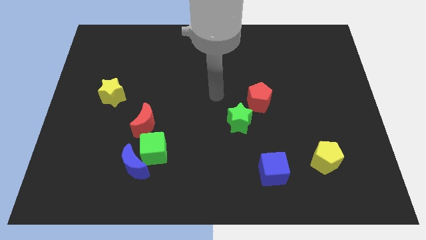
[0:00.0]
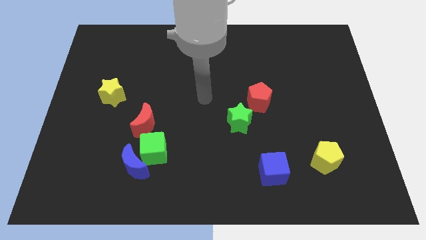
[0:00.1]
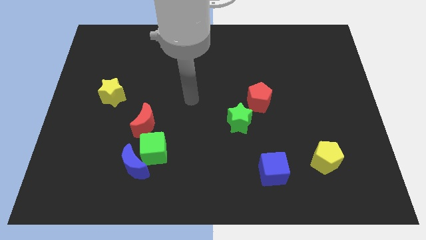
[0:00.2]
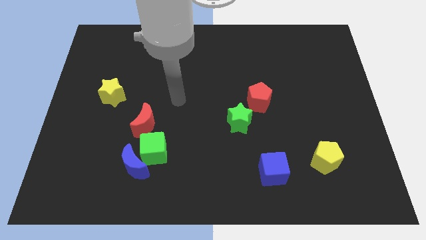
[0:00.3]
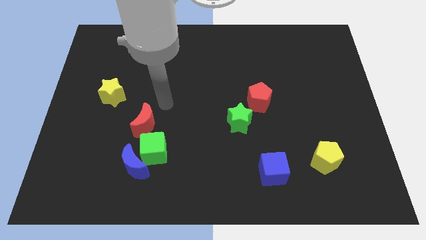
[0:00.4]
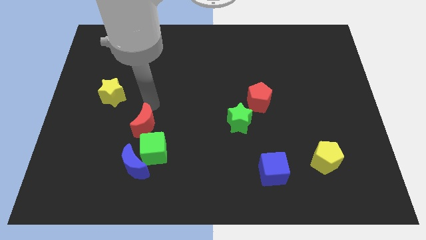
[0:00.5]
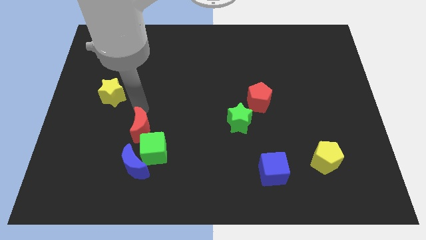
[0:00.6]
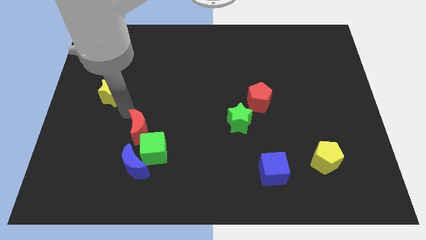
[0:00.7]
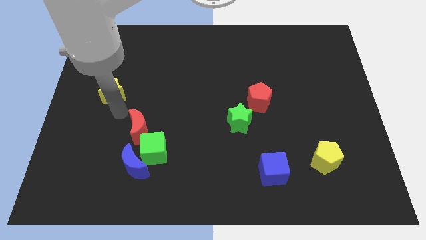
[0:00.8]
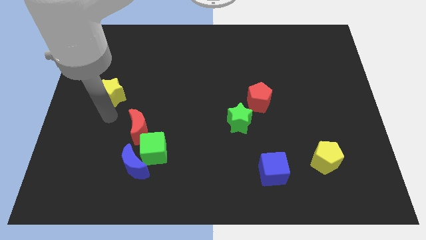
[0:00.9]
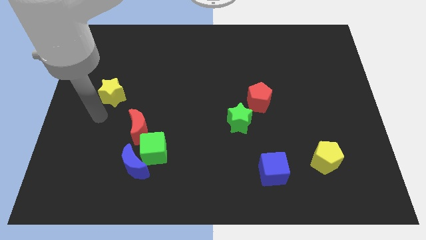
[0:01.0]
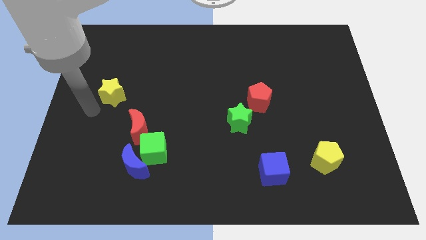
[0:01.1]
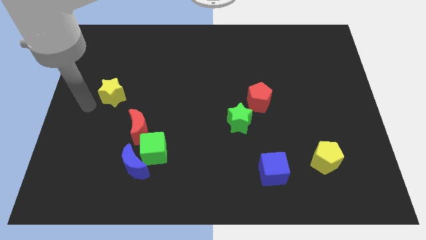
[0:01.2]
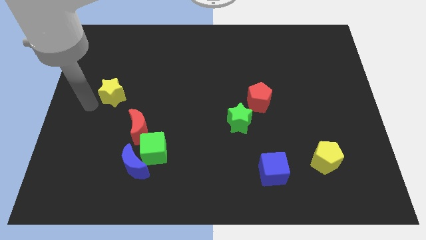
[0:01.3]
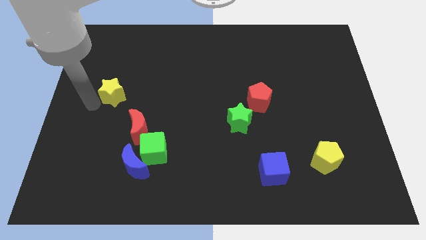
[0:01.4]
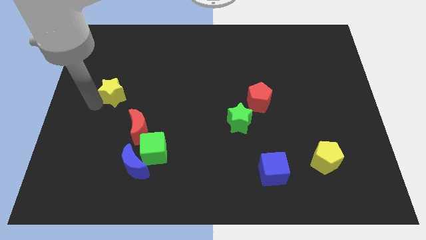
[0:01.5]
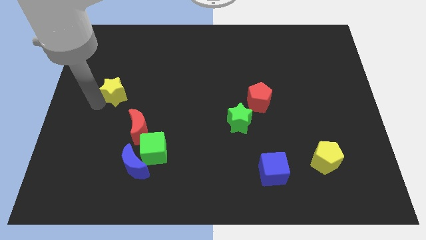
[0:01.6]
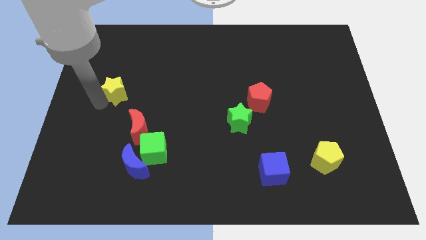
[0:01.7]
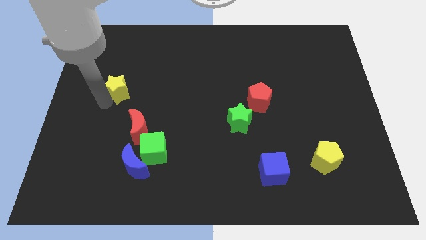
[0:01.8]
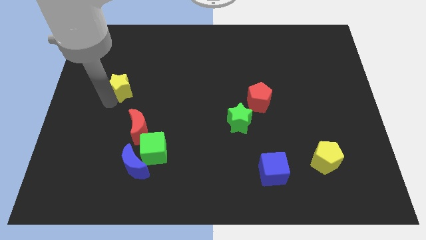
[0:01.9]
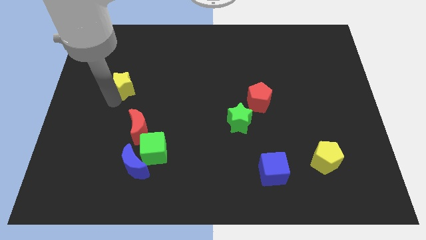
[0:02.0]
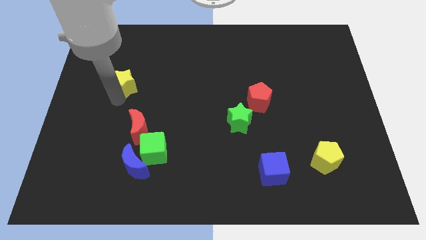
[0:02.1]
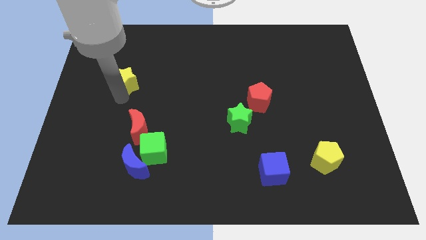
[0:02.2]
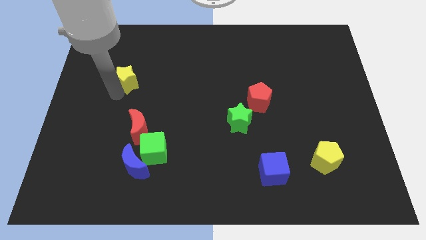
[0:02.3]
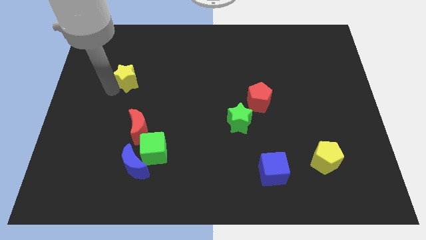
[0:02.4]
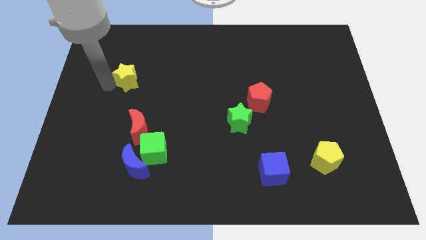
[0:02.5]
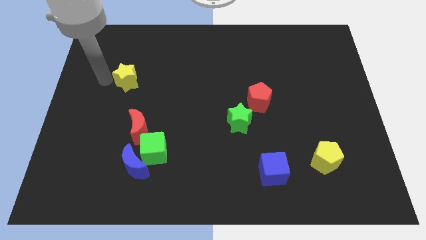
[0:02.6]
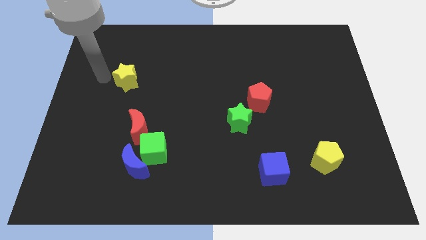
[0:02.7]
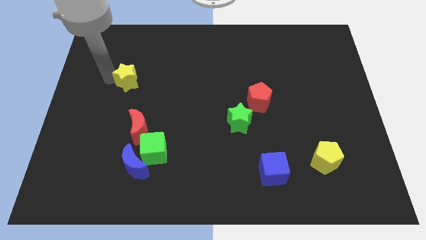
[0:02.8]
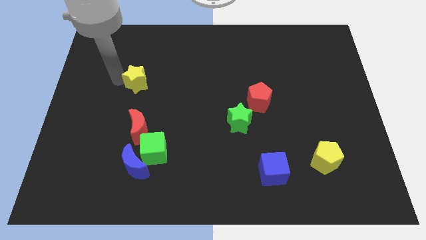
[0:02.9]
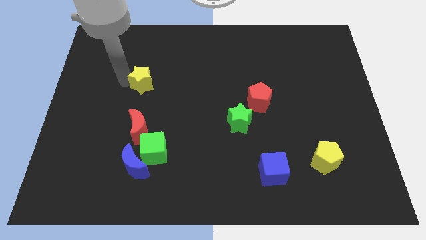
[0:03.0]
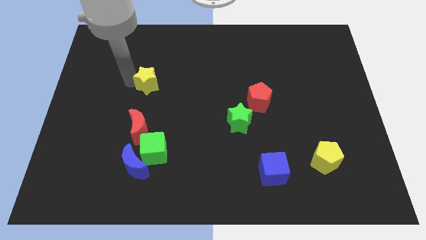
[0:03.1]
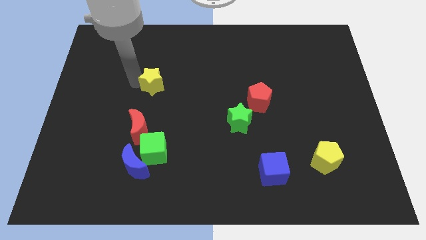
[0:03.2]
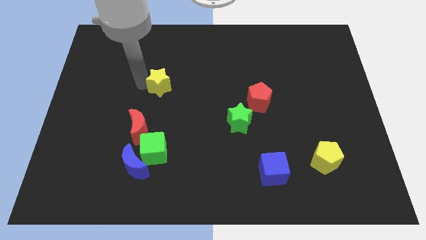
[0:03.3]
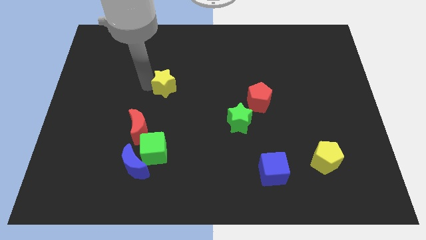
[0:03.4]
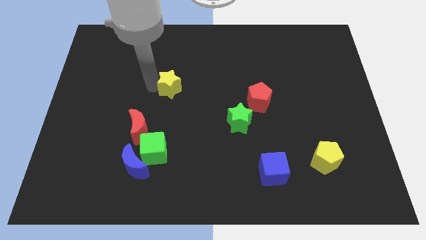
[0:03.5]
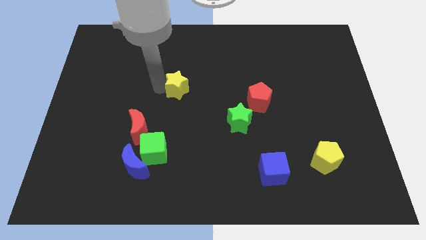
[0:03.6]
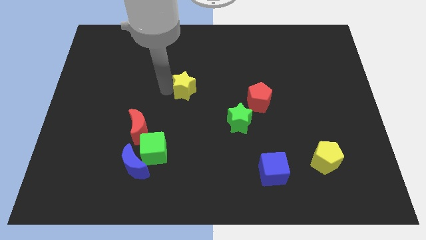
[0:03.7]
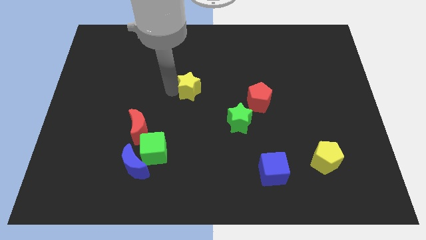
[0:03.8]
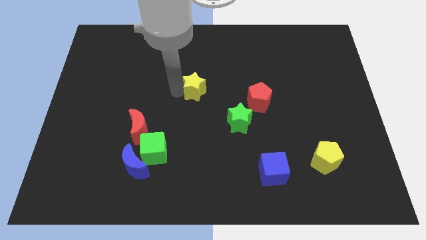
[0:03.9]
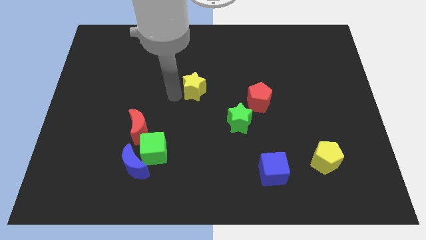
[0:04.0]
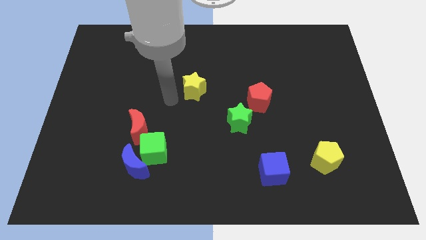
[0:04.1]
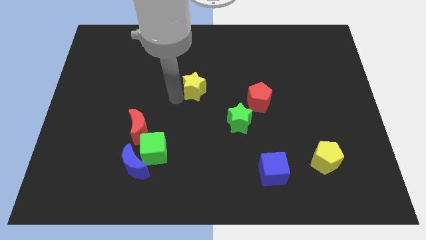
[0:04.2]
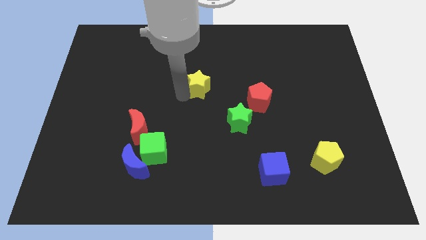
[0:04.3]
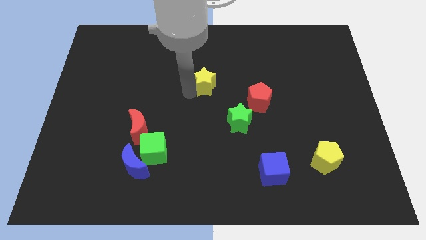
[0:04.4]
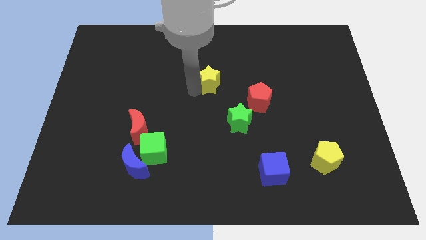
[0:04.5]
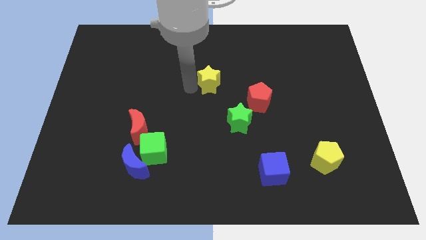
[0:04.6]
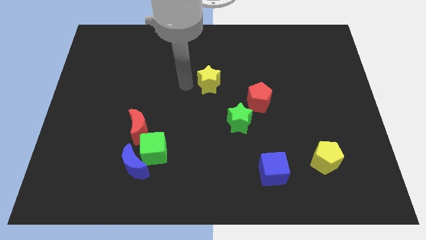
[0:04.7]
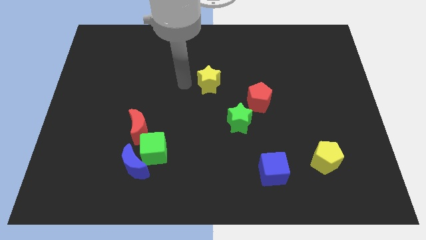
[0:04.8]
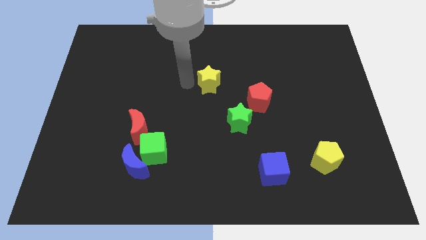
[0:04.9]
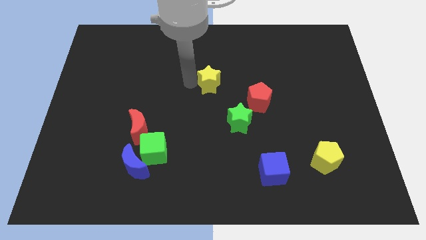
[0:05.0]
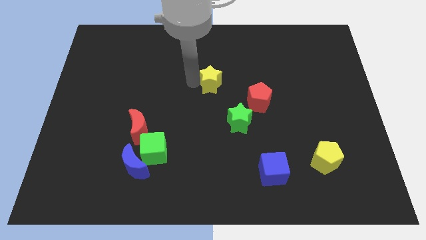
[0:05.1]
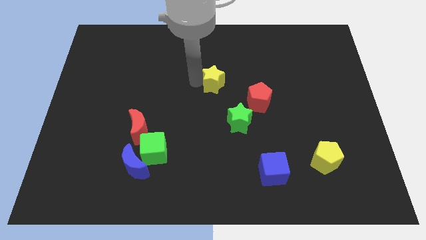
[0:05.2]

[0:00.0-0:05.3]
move the yellow star diagonally up and to the left of the red pentagon

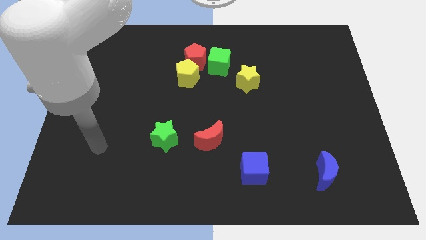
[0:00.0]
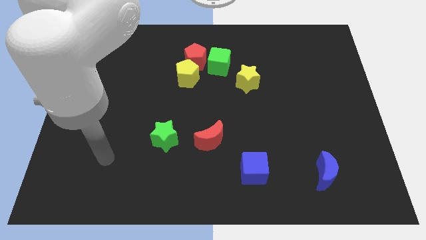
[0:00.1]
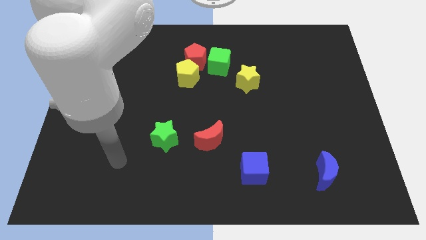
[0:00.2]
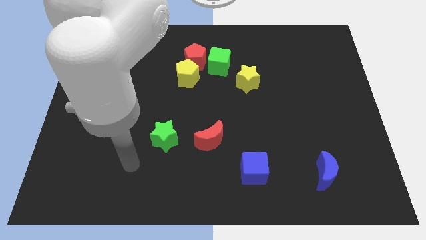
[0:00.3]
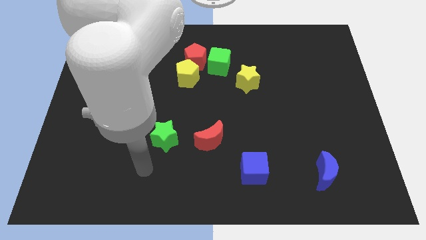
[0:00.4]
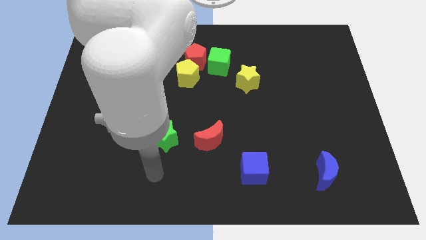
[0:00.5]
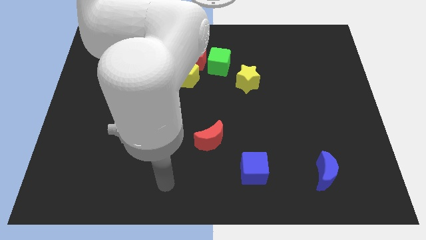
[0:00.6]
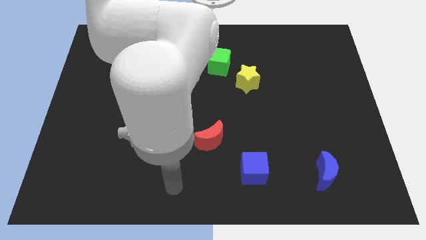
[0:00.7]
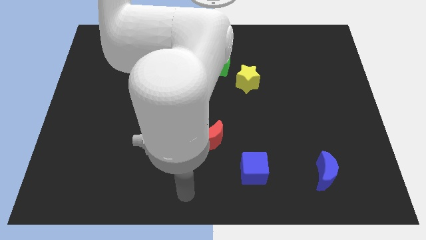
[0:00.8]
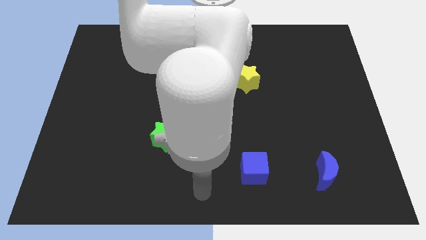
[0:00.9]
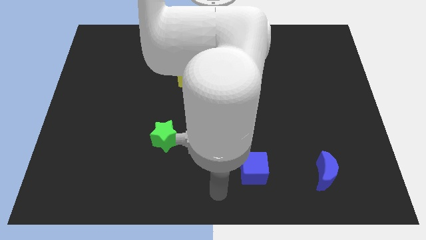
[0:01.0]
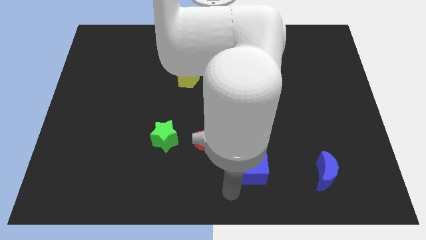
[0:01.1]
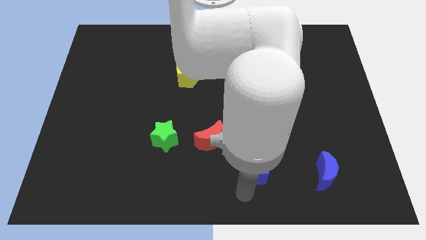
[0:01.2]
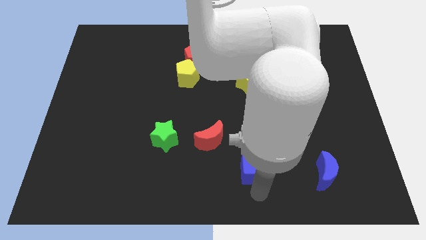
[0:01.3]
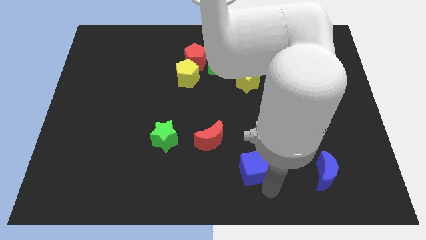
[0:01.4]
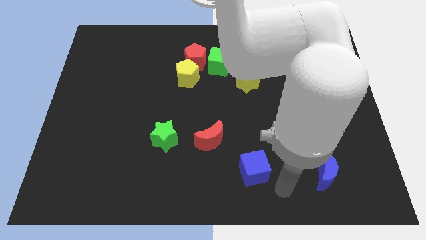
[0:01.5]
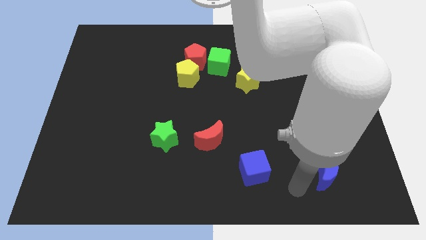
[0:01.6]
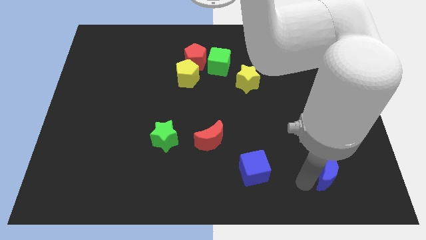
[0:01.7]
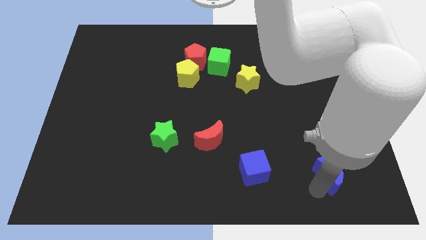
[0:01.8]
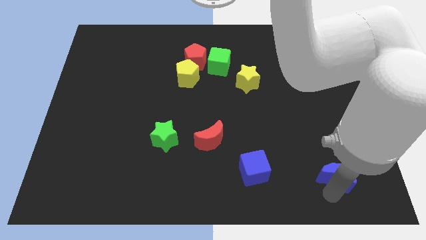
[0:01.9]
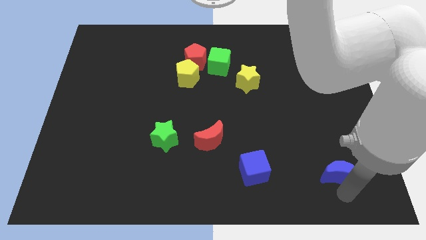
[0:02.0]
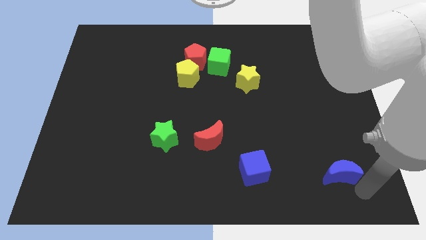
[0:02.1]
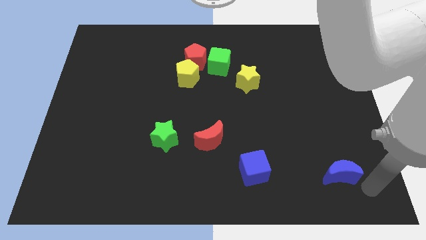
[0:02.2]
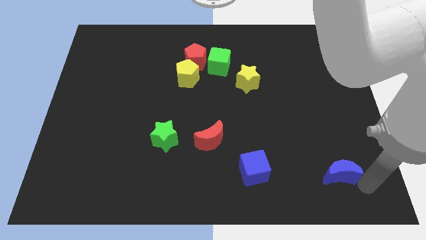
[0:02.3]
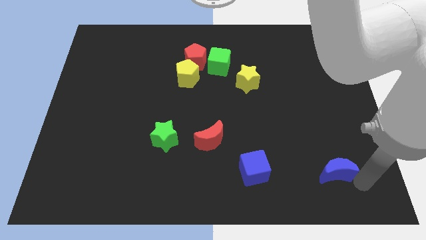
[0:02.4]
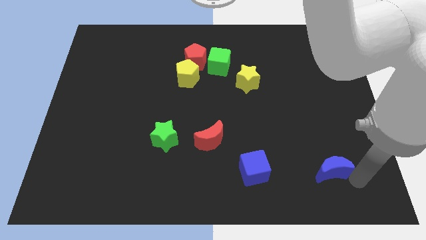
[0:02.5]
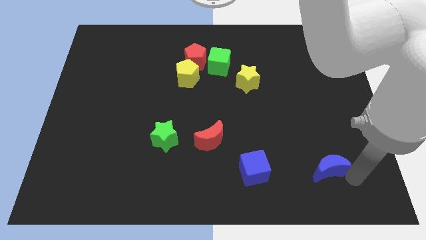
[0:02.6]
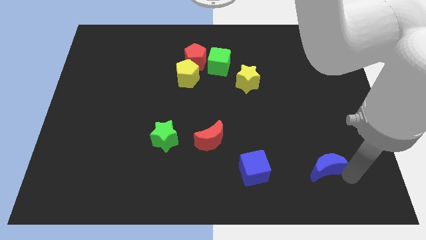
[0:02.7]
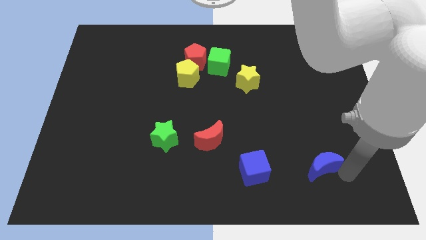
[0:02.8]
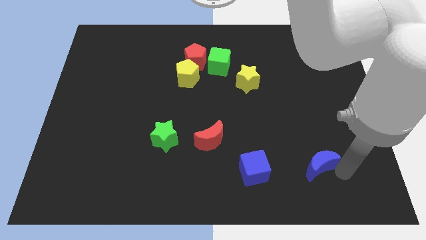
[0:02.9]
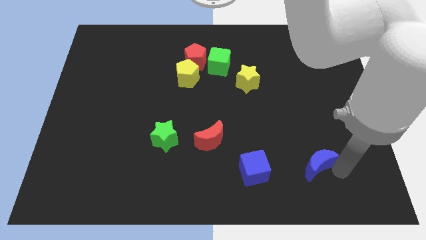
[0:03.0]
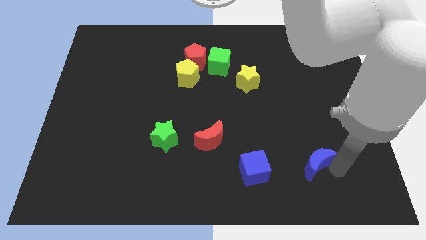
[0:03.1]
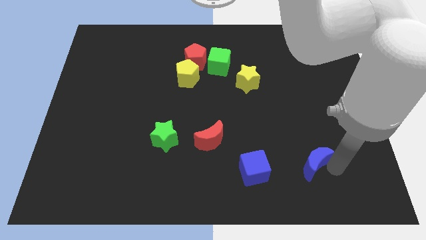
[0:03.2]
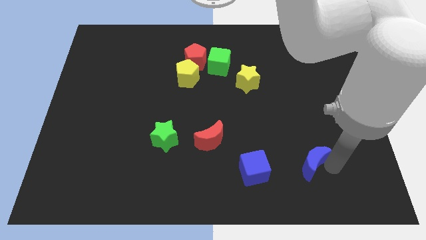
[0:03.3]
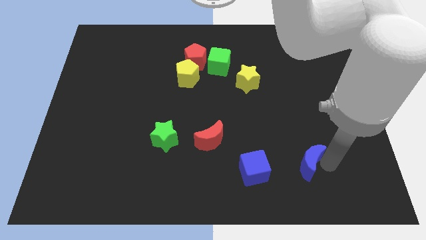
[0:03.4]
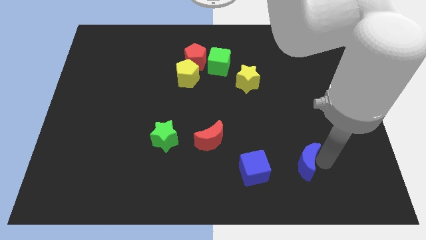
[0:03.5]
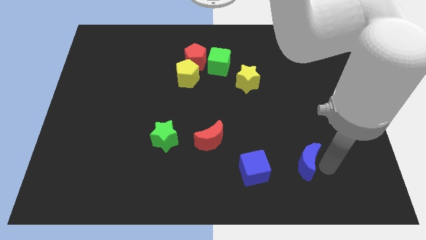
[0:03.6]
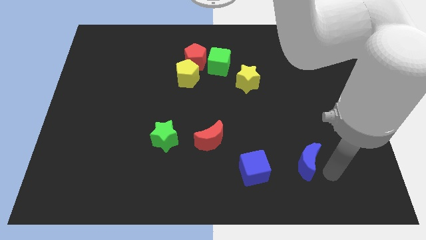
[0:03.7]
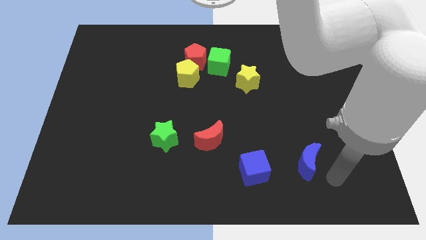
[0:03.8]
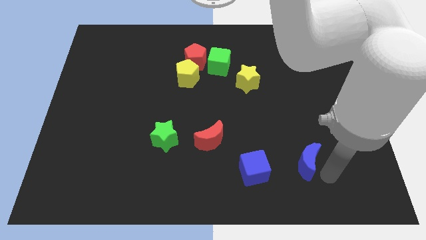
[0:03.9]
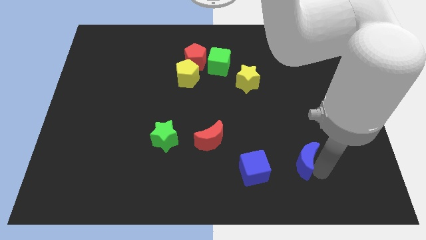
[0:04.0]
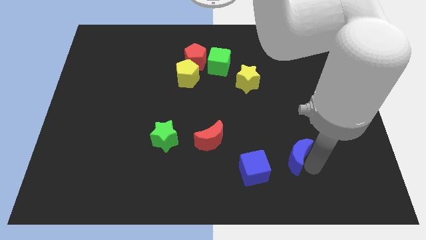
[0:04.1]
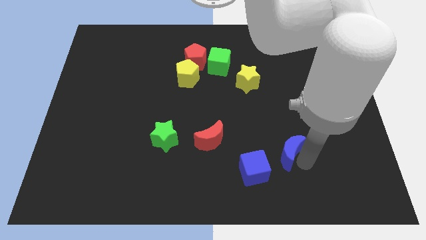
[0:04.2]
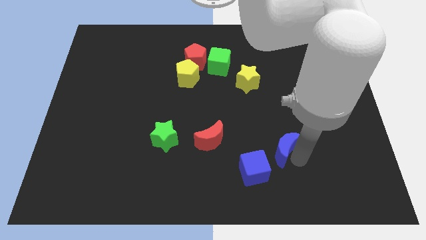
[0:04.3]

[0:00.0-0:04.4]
slide the blue moon to the right side of the red moon
